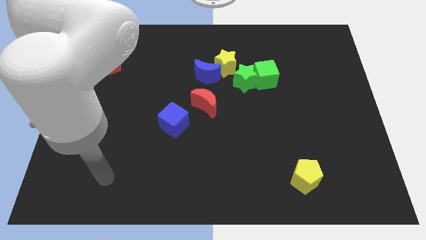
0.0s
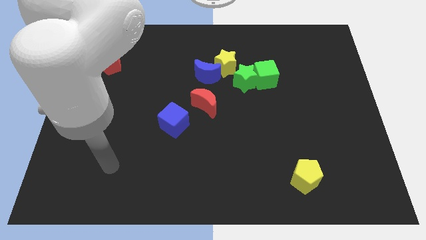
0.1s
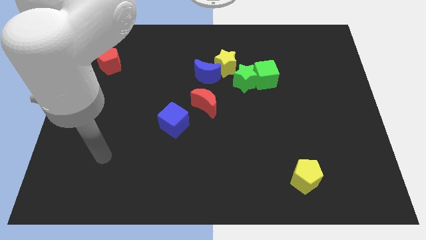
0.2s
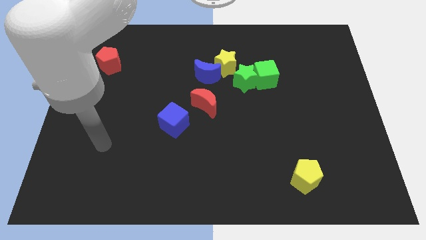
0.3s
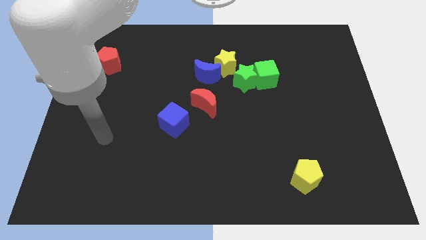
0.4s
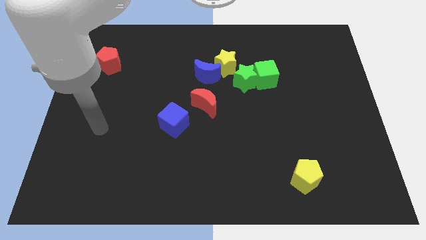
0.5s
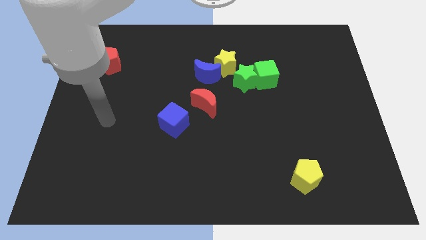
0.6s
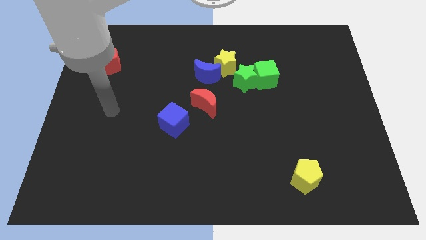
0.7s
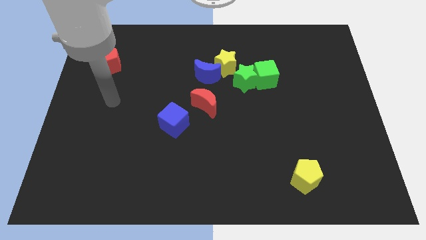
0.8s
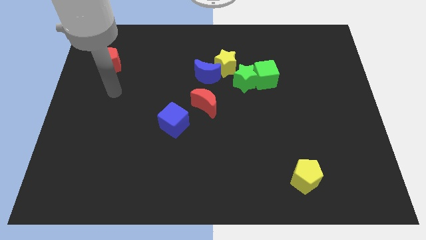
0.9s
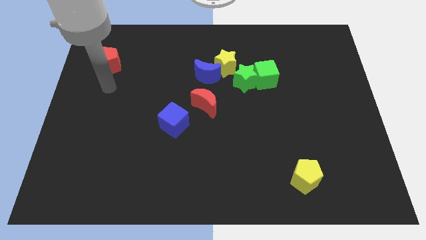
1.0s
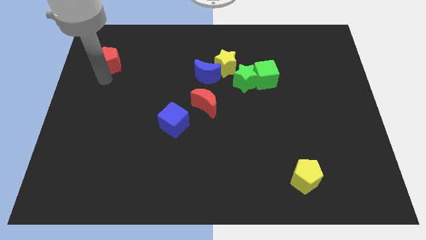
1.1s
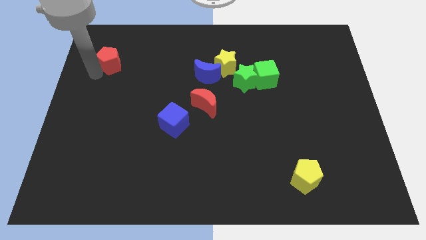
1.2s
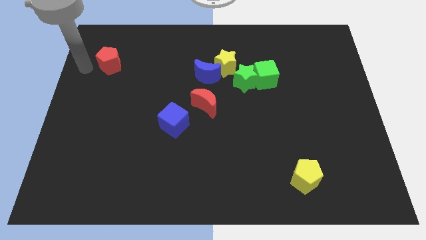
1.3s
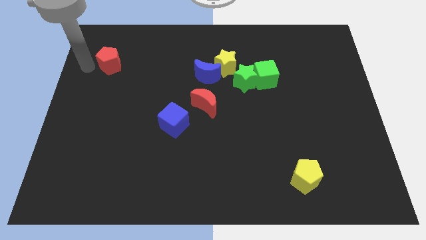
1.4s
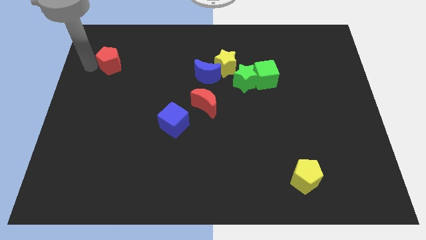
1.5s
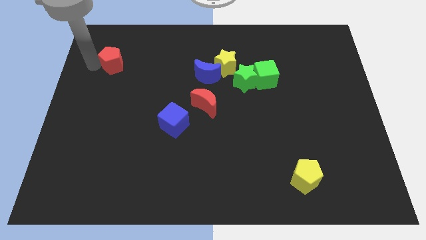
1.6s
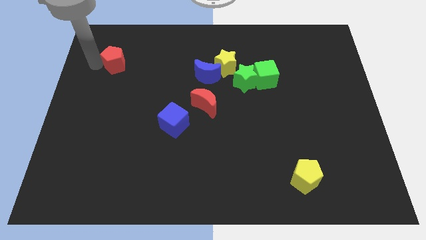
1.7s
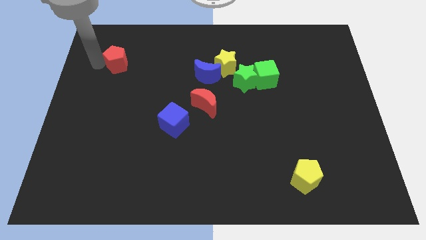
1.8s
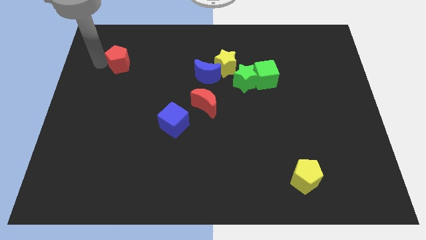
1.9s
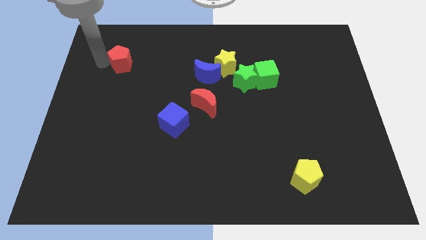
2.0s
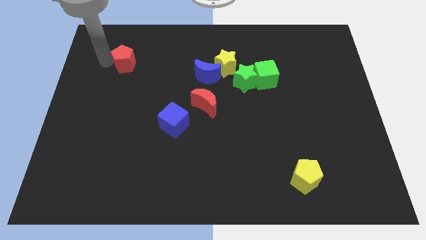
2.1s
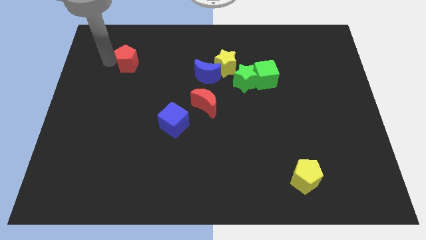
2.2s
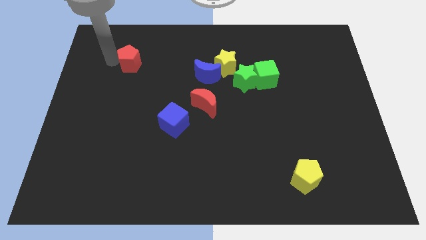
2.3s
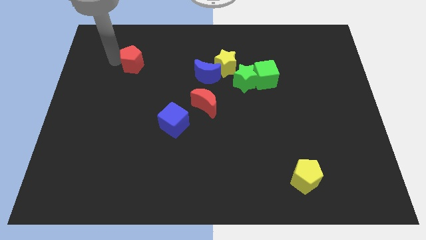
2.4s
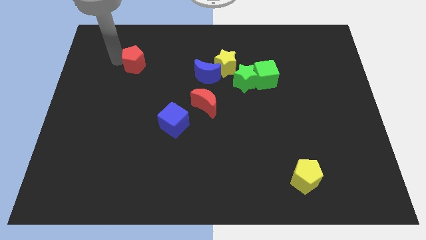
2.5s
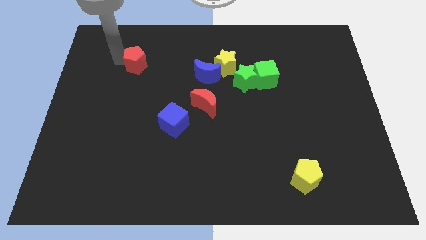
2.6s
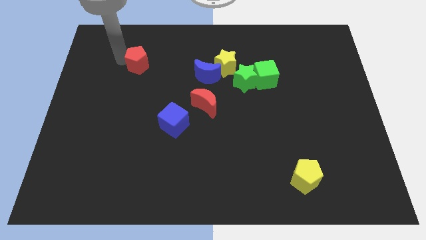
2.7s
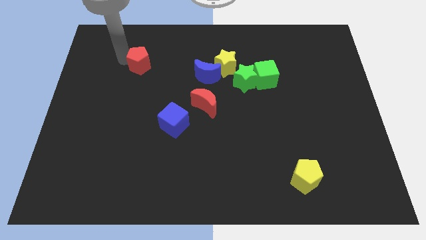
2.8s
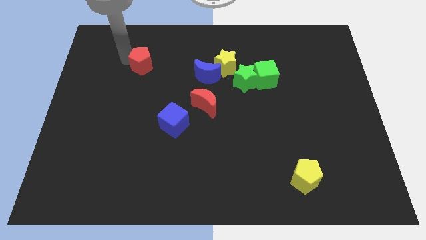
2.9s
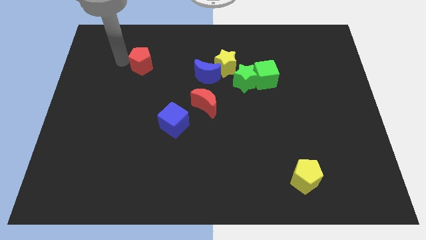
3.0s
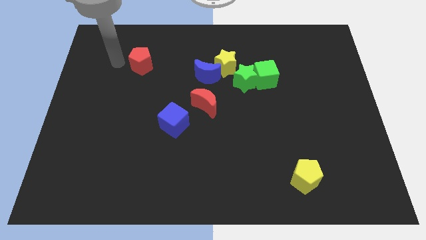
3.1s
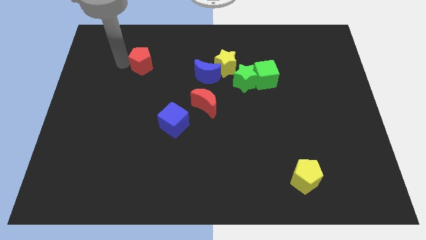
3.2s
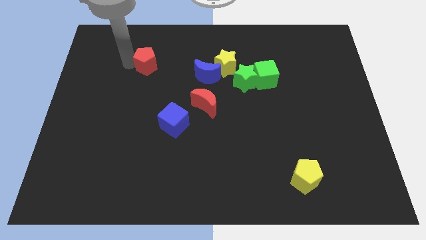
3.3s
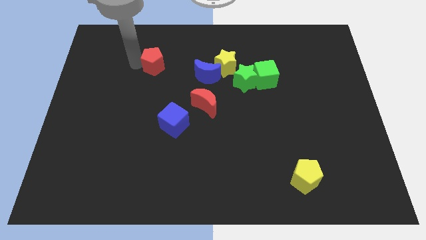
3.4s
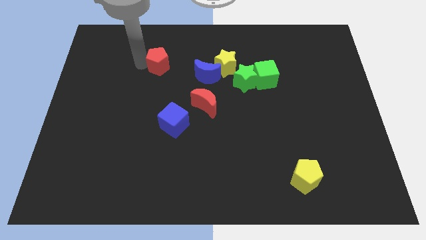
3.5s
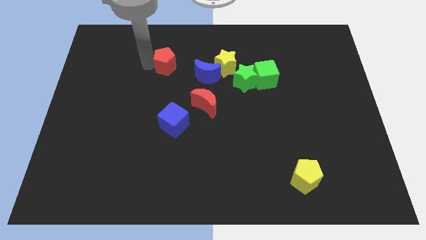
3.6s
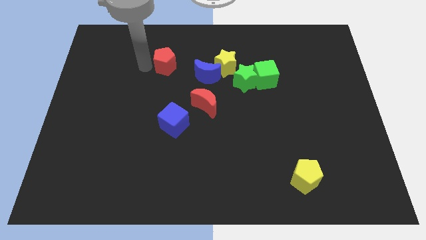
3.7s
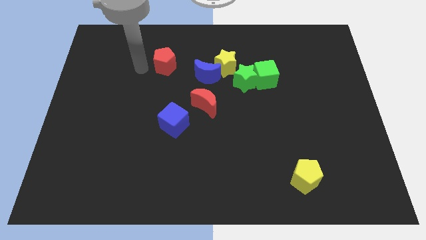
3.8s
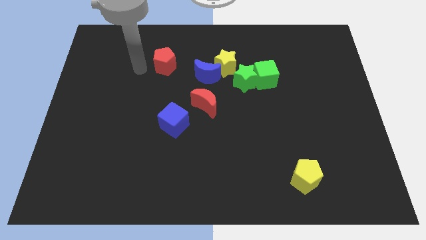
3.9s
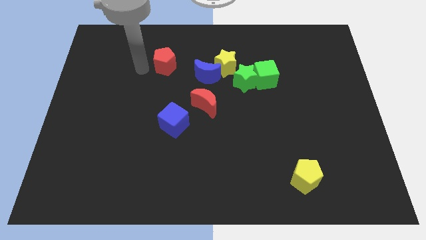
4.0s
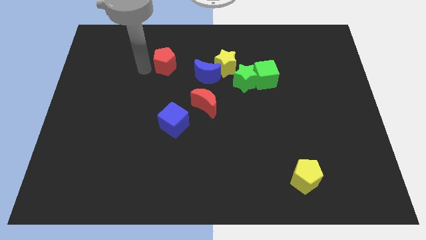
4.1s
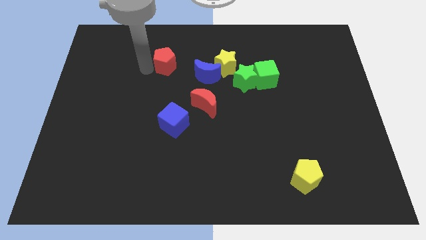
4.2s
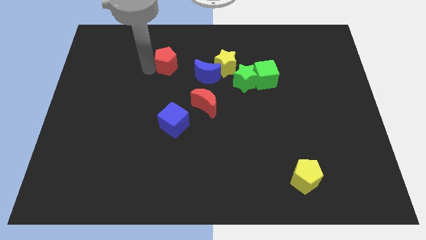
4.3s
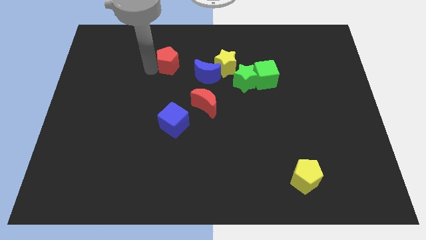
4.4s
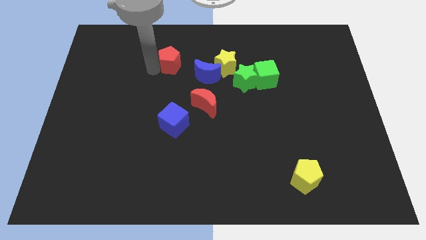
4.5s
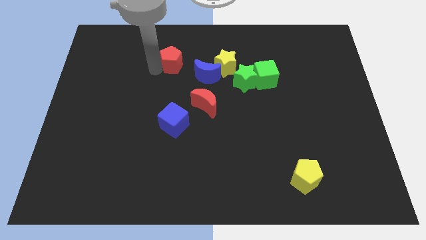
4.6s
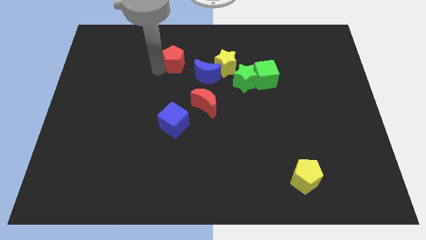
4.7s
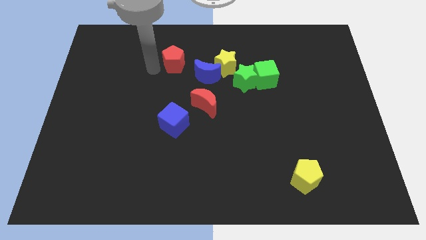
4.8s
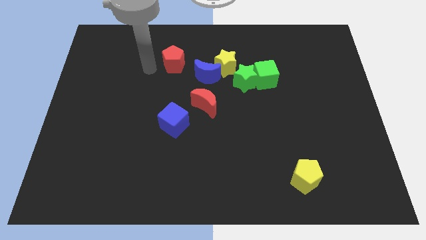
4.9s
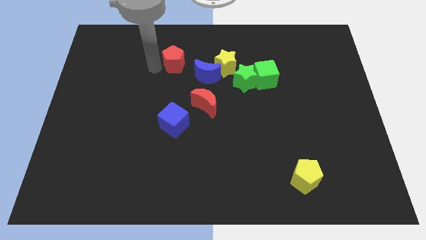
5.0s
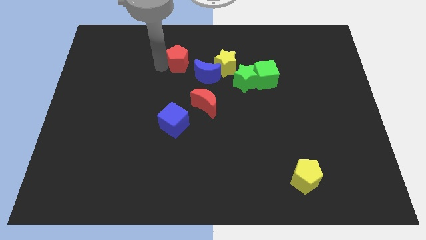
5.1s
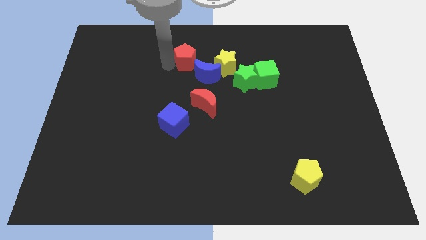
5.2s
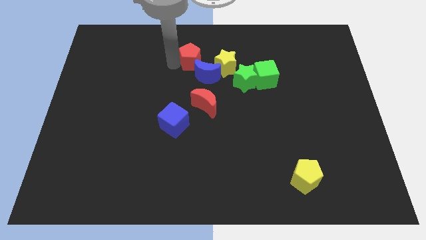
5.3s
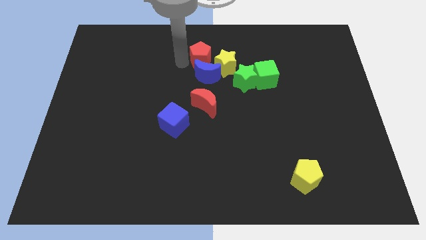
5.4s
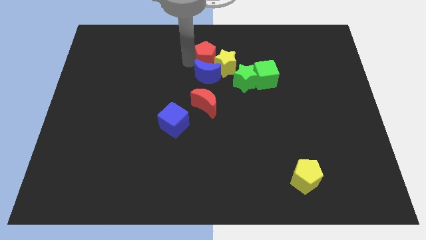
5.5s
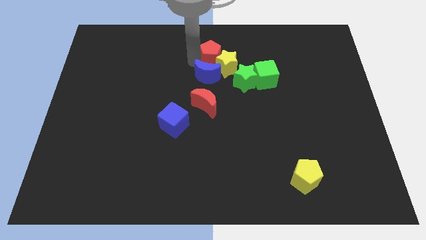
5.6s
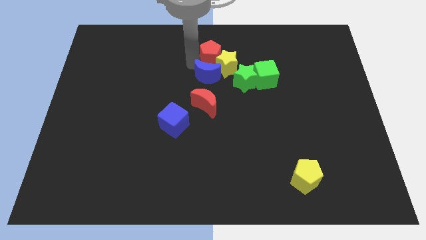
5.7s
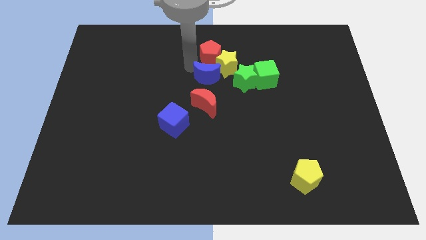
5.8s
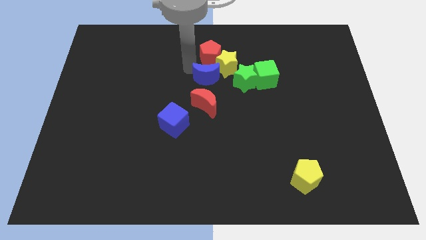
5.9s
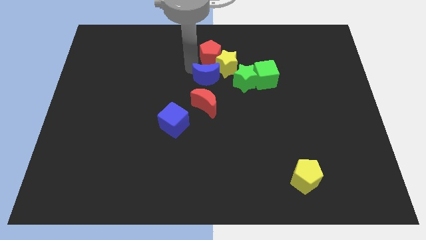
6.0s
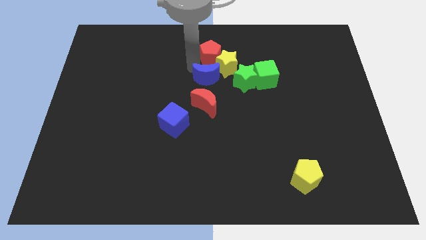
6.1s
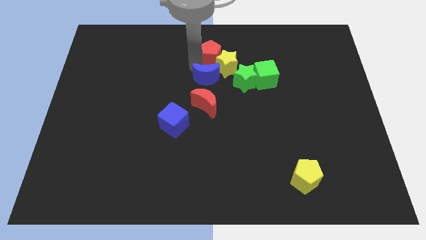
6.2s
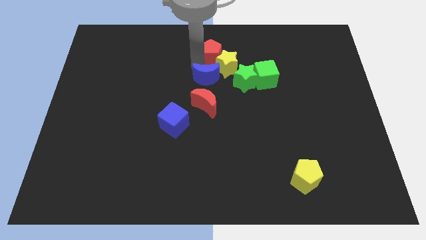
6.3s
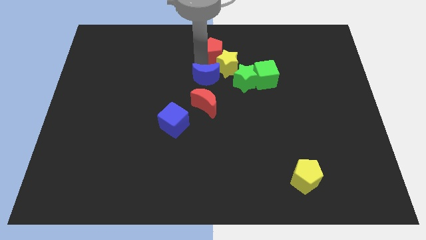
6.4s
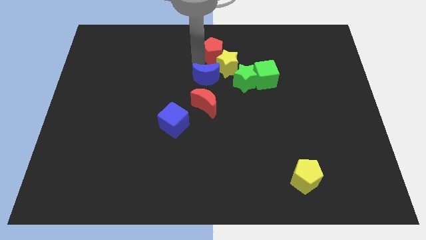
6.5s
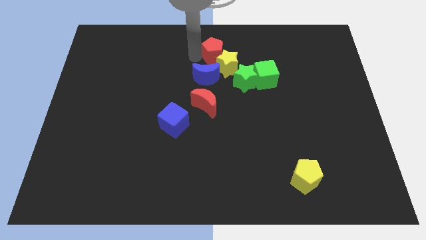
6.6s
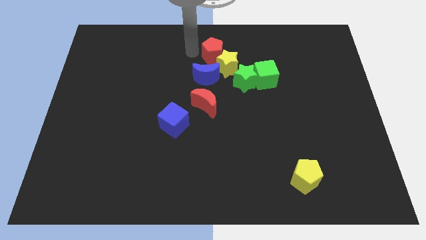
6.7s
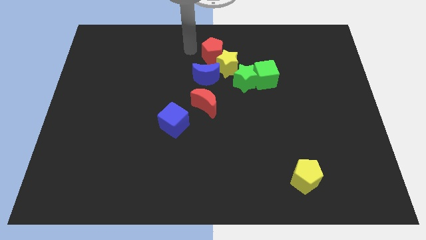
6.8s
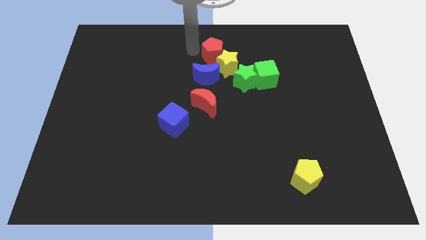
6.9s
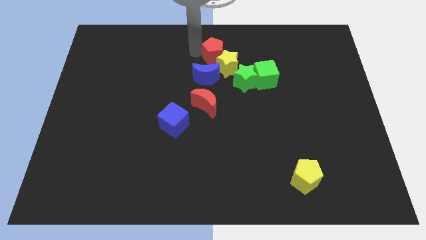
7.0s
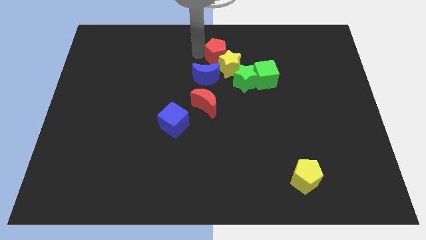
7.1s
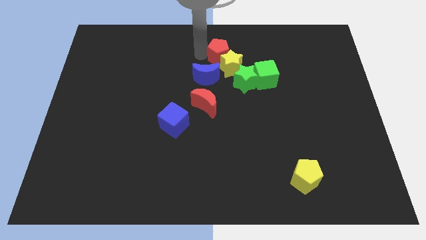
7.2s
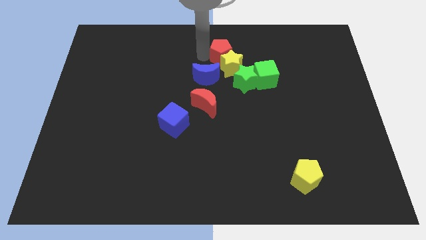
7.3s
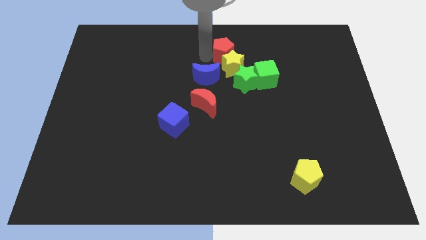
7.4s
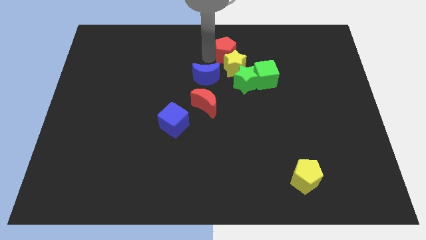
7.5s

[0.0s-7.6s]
push the red pentagon diagonally up and to the left of the green cube
